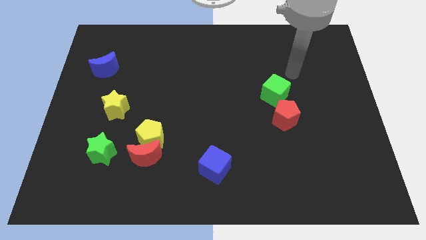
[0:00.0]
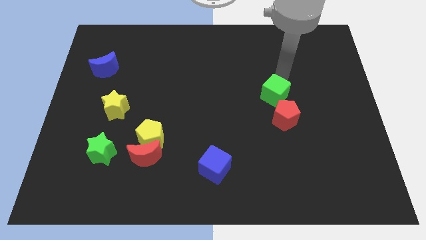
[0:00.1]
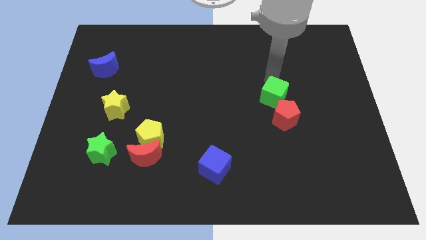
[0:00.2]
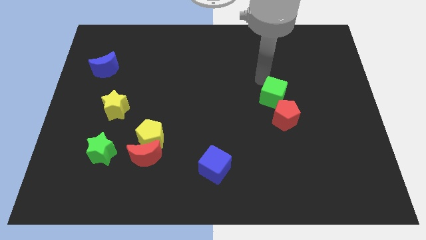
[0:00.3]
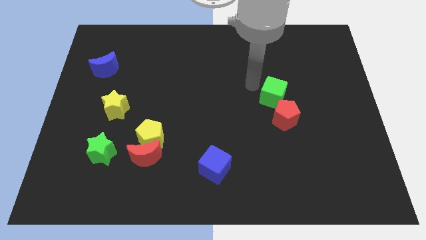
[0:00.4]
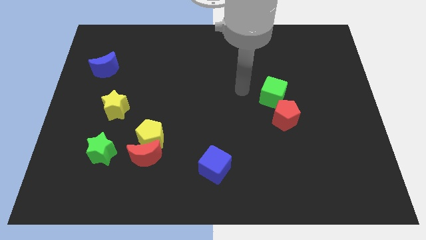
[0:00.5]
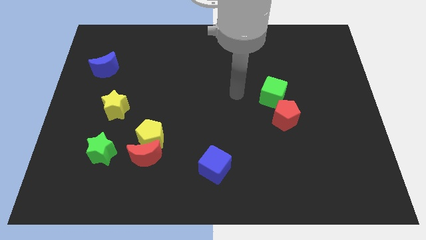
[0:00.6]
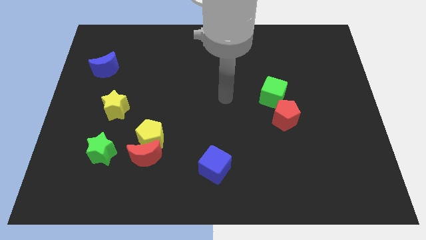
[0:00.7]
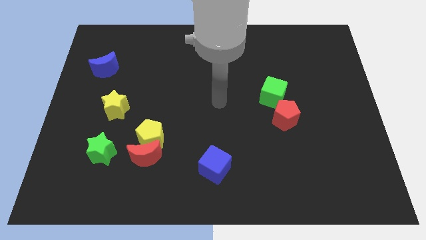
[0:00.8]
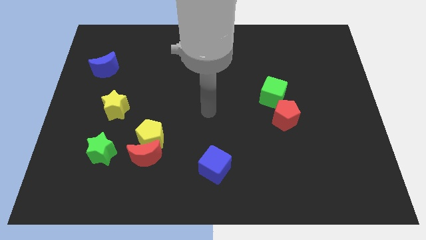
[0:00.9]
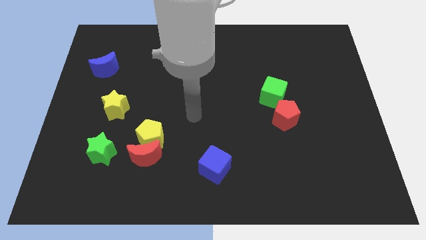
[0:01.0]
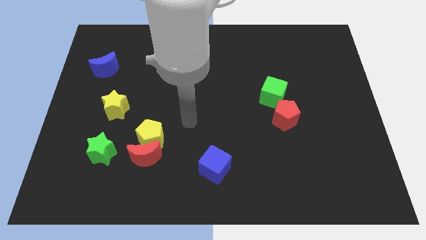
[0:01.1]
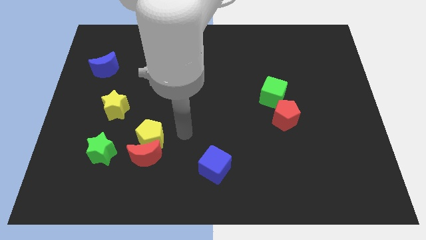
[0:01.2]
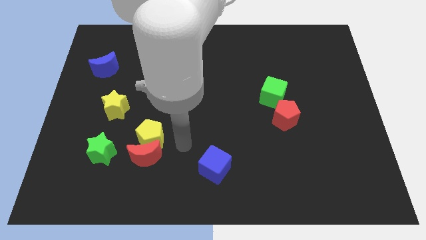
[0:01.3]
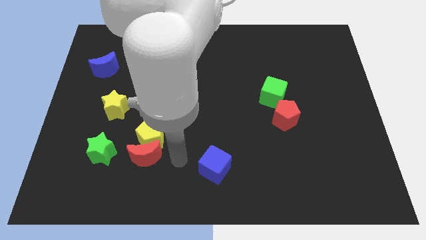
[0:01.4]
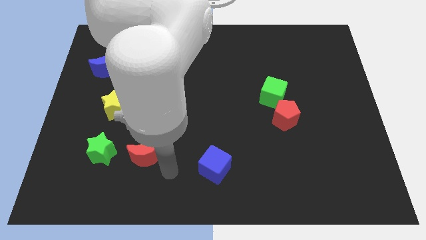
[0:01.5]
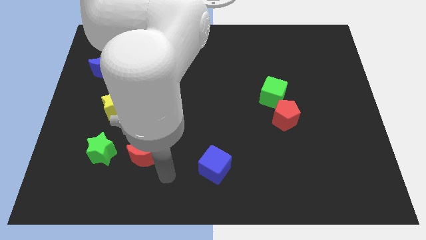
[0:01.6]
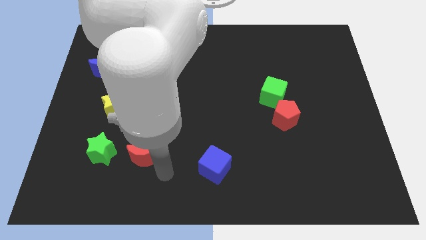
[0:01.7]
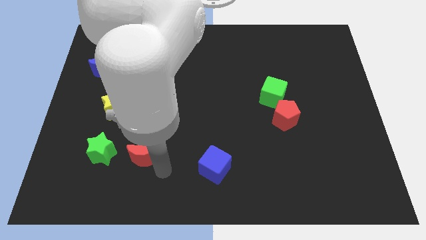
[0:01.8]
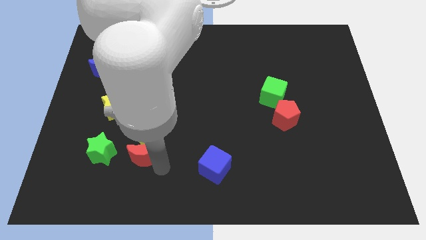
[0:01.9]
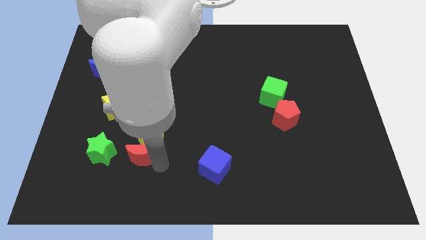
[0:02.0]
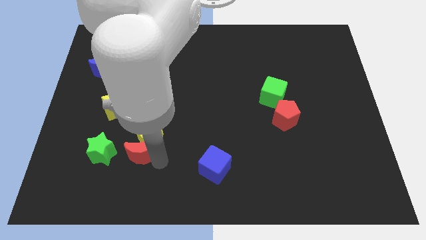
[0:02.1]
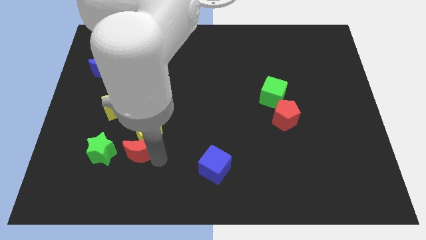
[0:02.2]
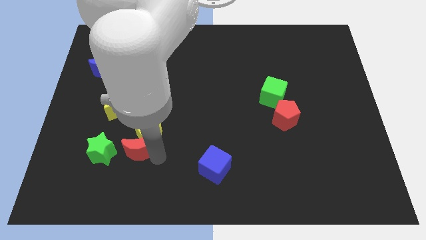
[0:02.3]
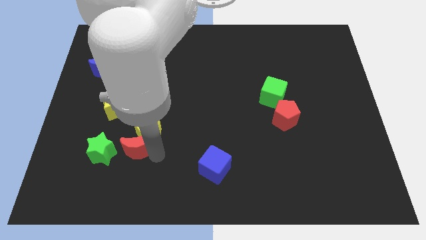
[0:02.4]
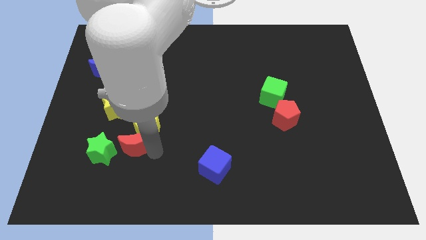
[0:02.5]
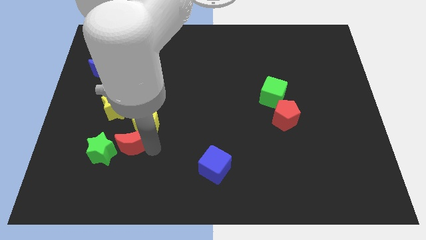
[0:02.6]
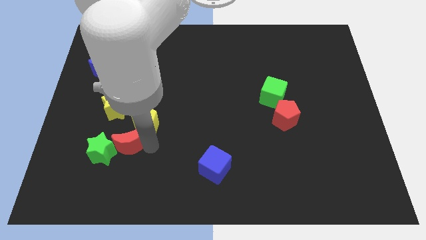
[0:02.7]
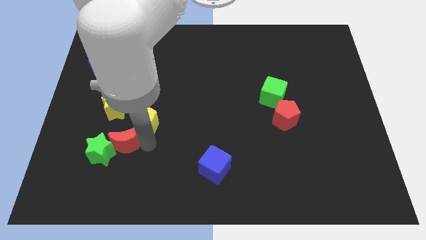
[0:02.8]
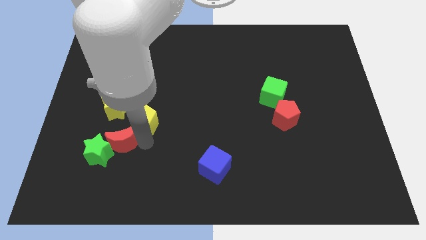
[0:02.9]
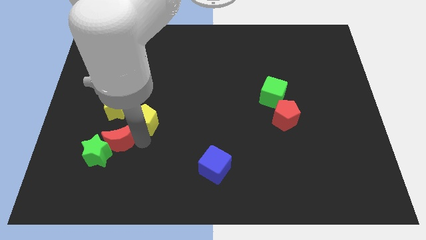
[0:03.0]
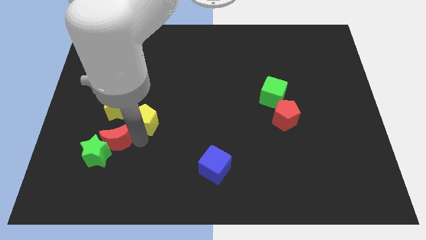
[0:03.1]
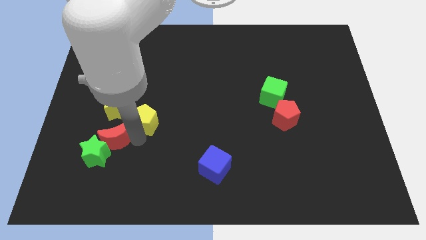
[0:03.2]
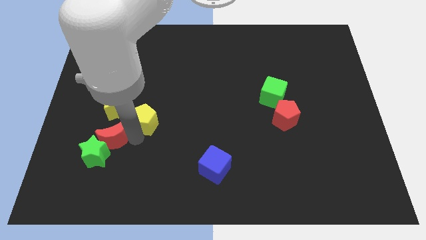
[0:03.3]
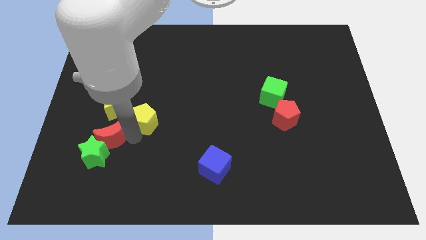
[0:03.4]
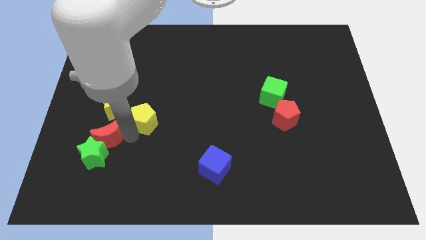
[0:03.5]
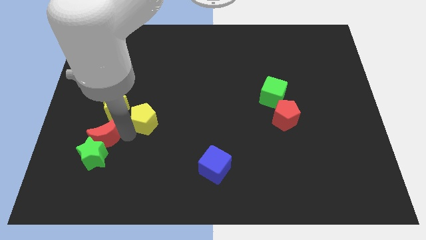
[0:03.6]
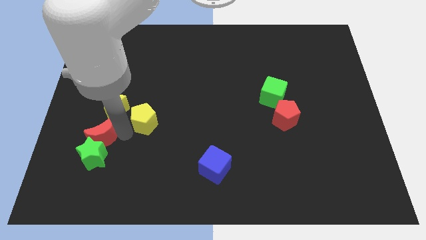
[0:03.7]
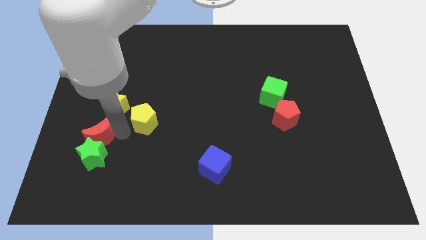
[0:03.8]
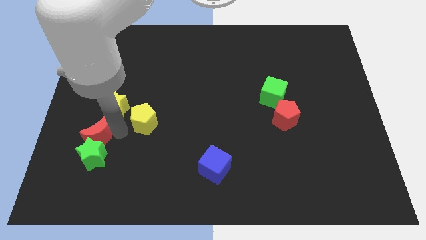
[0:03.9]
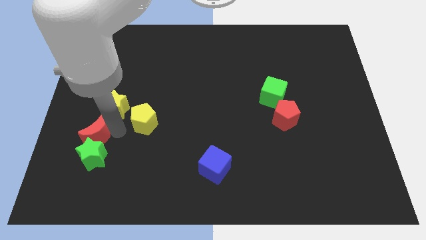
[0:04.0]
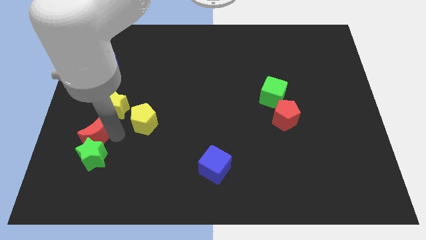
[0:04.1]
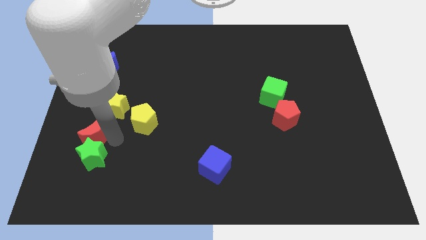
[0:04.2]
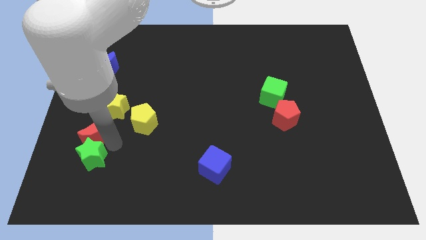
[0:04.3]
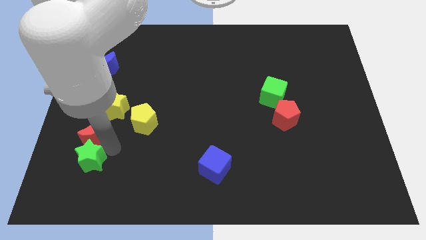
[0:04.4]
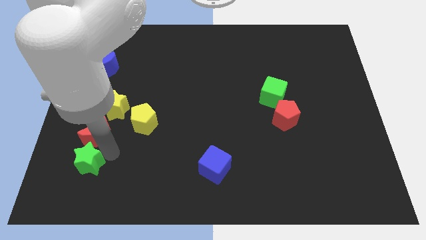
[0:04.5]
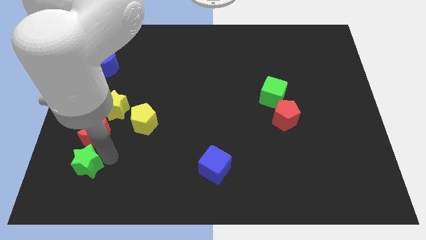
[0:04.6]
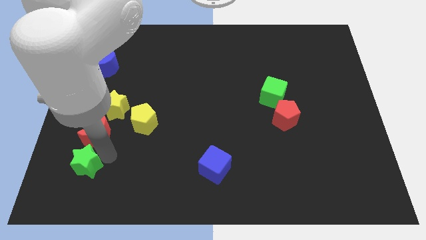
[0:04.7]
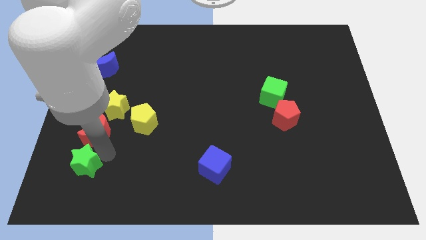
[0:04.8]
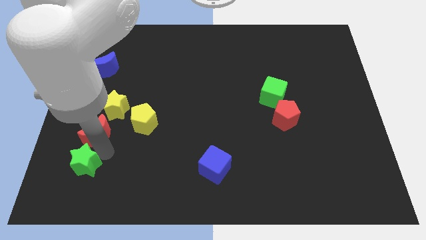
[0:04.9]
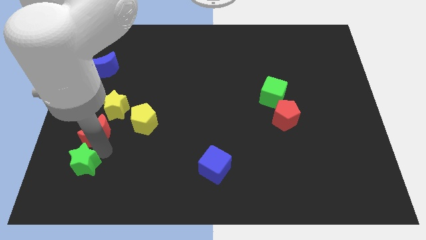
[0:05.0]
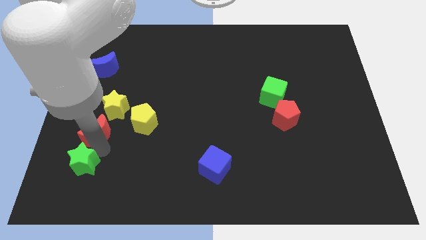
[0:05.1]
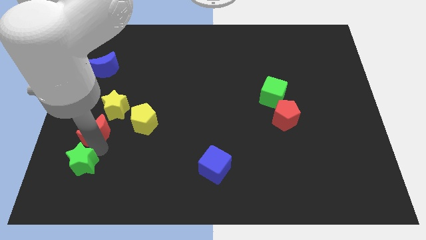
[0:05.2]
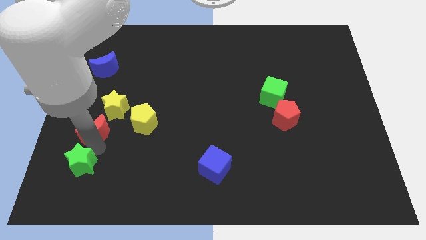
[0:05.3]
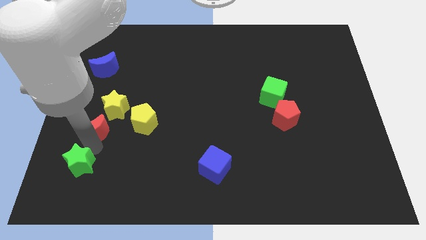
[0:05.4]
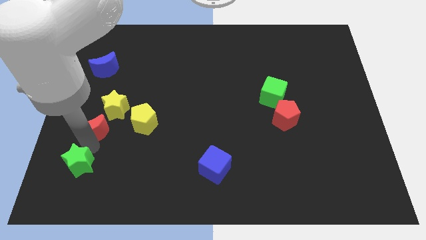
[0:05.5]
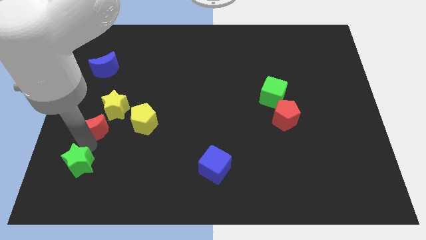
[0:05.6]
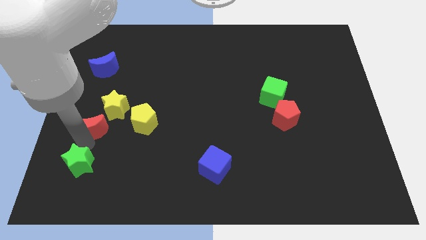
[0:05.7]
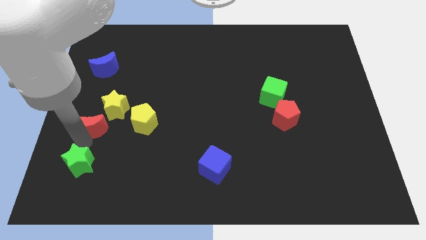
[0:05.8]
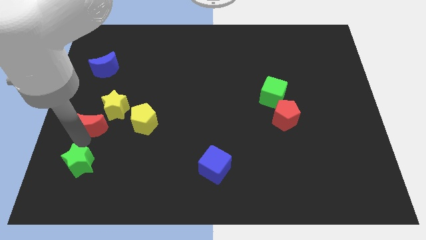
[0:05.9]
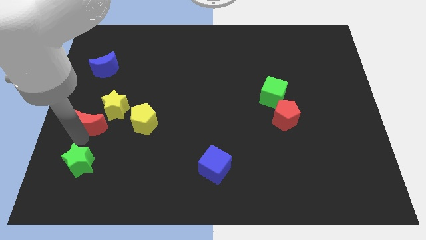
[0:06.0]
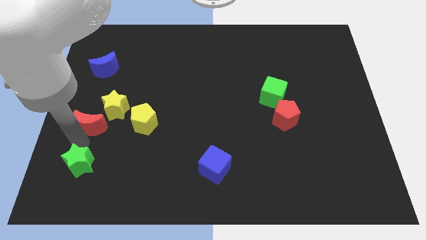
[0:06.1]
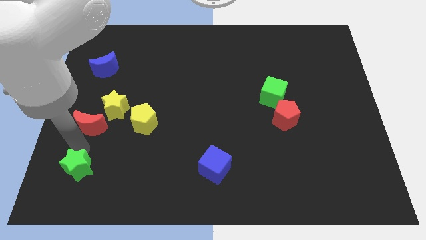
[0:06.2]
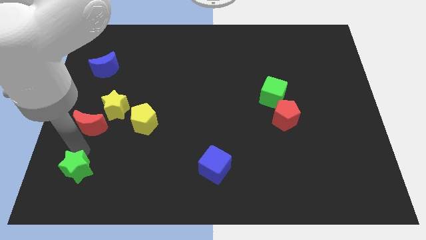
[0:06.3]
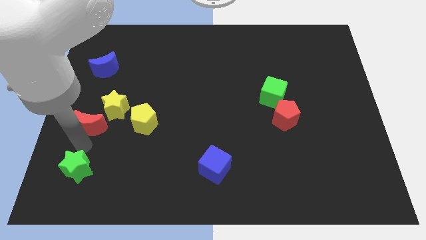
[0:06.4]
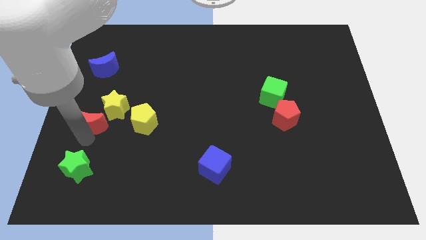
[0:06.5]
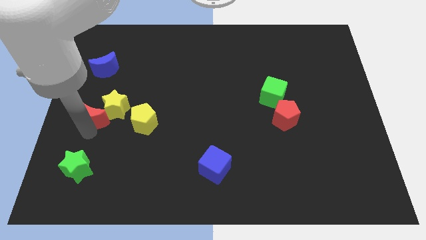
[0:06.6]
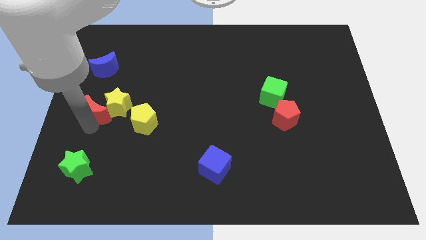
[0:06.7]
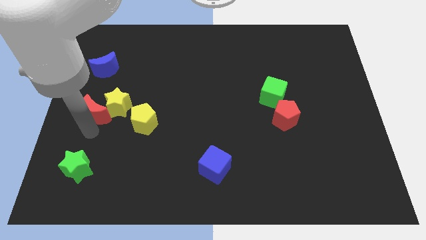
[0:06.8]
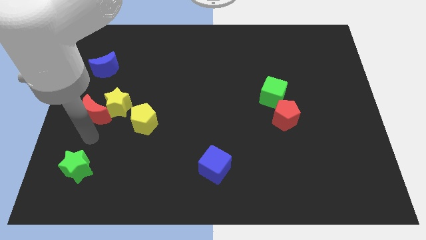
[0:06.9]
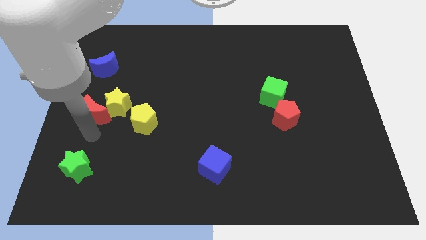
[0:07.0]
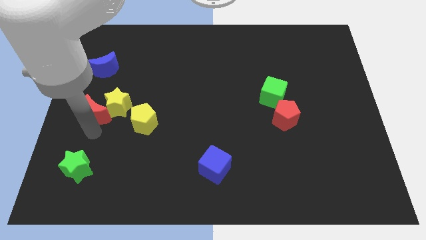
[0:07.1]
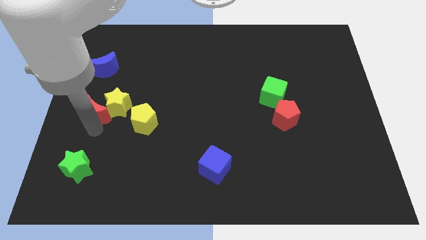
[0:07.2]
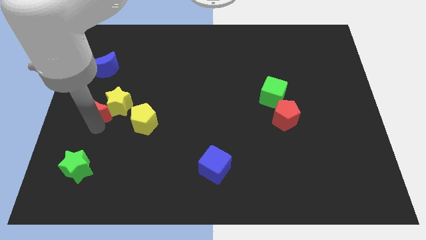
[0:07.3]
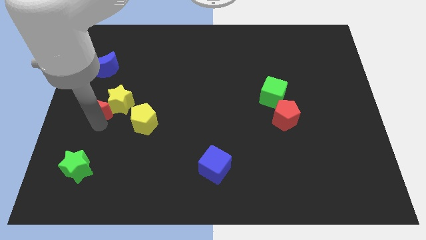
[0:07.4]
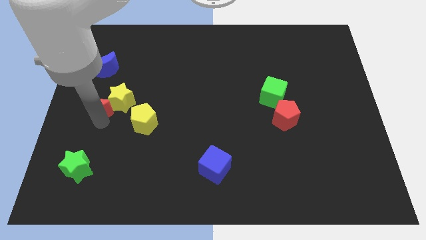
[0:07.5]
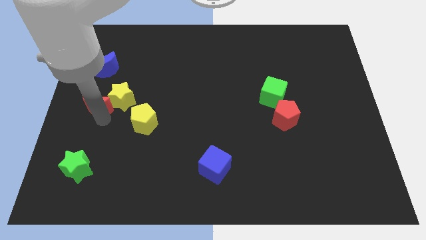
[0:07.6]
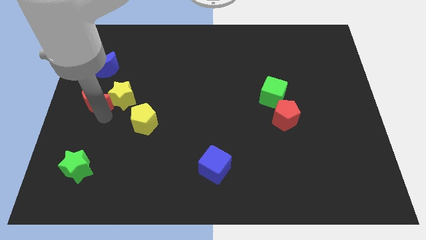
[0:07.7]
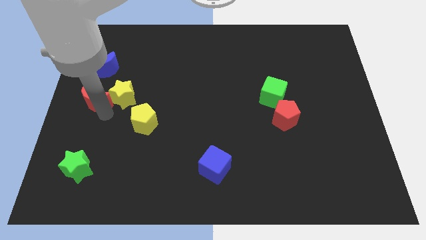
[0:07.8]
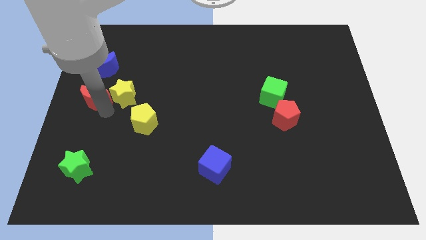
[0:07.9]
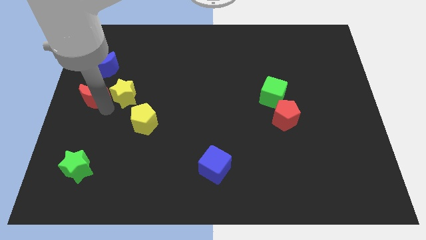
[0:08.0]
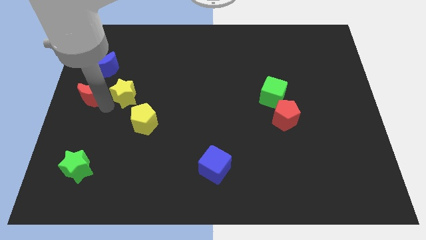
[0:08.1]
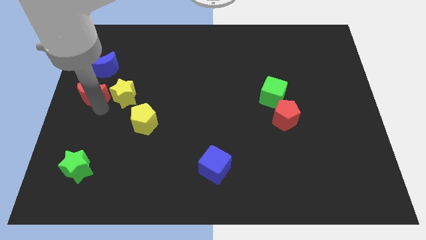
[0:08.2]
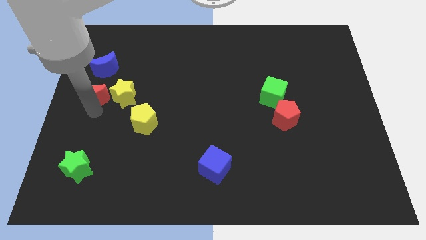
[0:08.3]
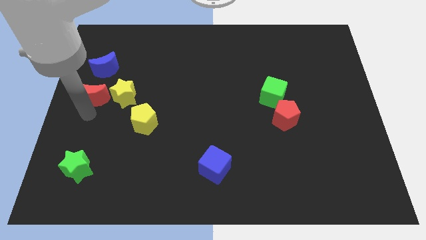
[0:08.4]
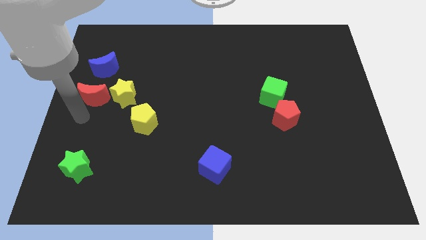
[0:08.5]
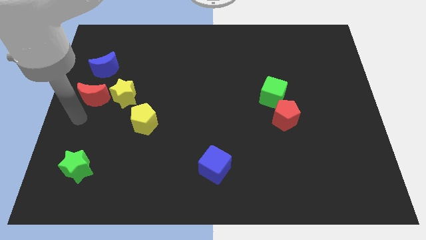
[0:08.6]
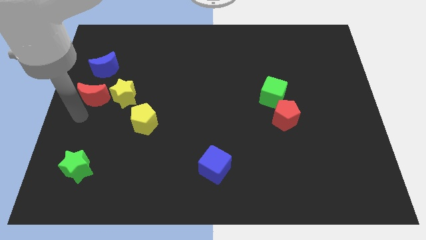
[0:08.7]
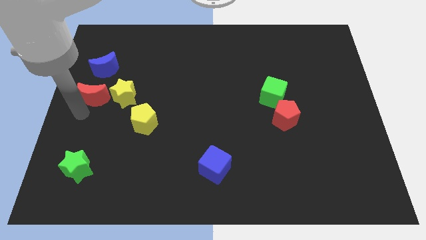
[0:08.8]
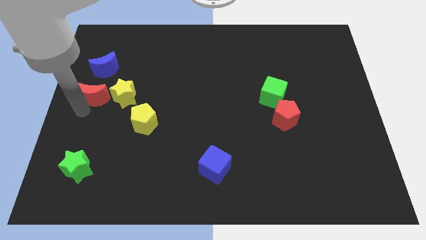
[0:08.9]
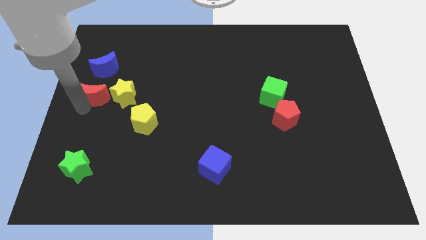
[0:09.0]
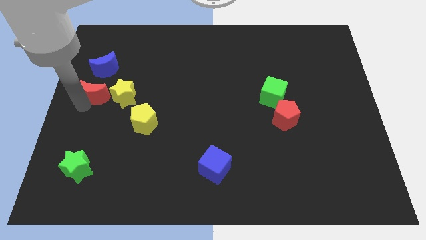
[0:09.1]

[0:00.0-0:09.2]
push the red moon to the top left side of the yellow star
